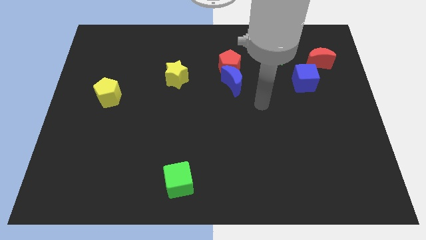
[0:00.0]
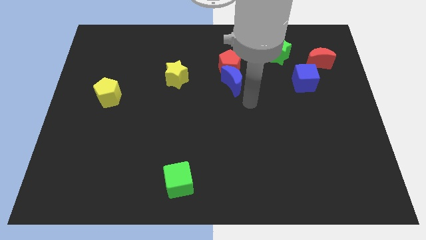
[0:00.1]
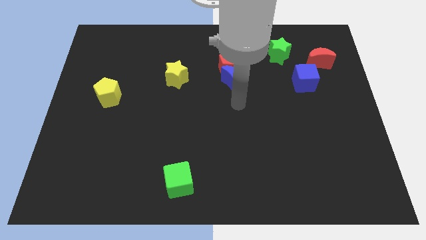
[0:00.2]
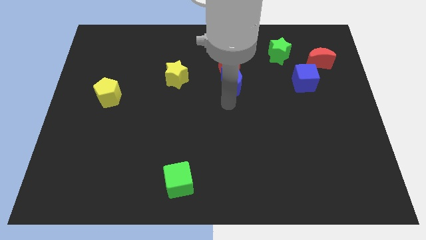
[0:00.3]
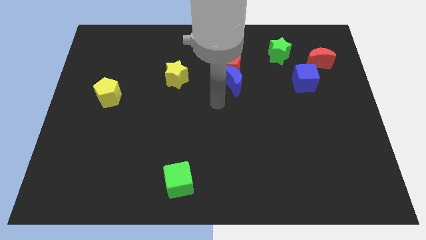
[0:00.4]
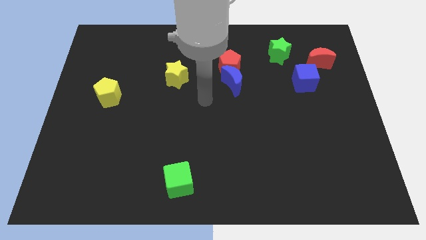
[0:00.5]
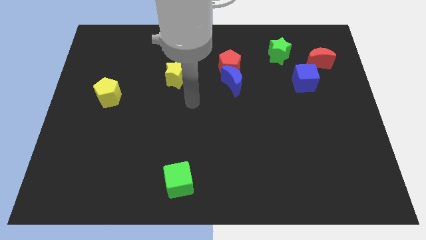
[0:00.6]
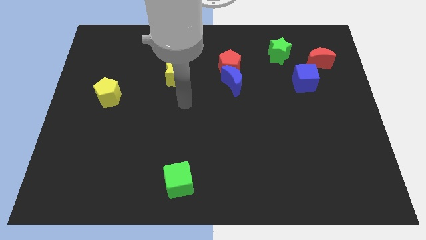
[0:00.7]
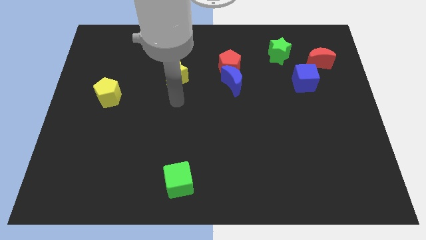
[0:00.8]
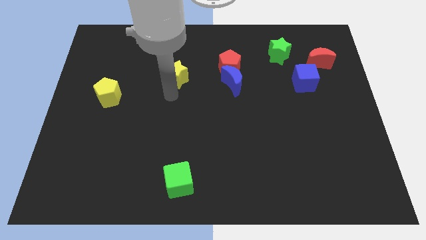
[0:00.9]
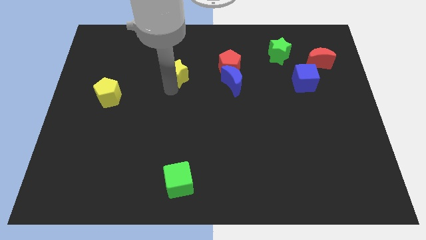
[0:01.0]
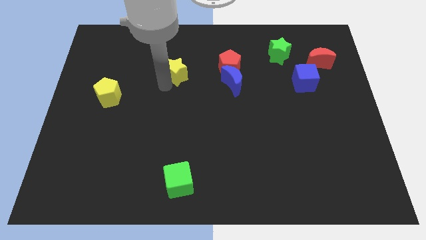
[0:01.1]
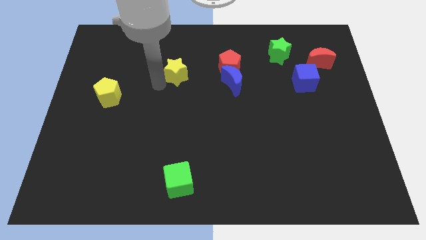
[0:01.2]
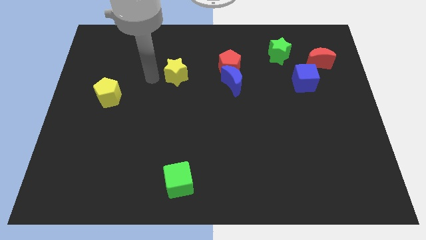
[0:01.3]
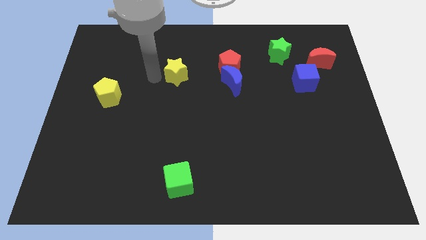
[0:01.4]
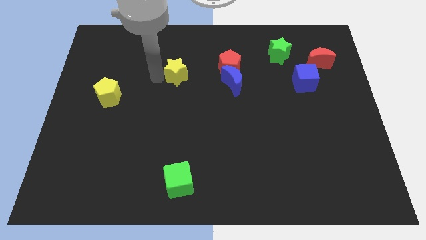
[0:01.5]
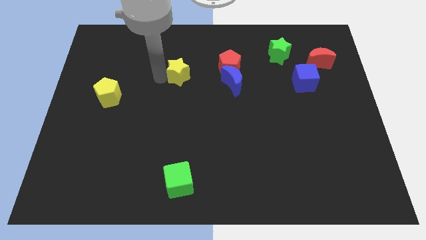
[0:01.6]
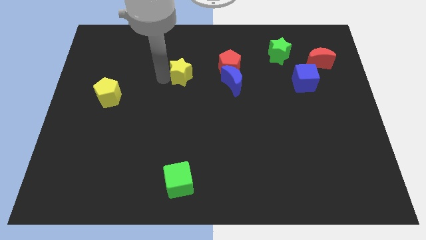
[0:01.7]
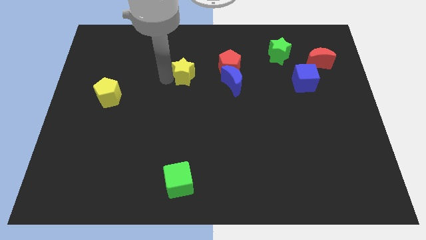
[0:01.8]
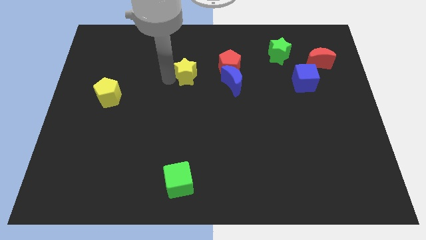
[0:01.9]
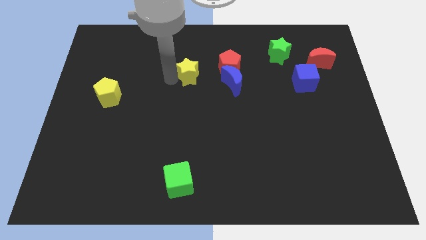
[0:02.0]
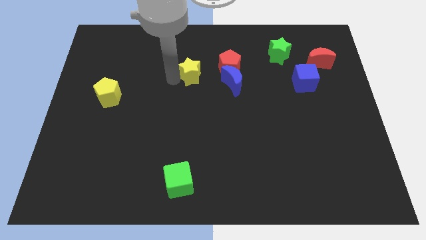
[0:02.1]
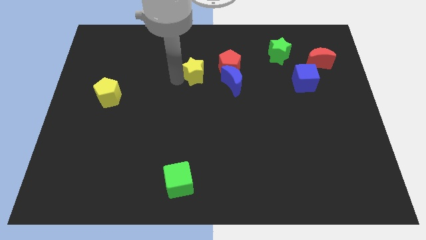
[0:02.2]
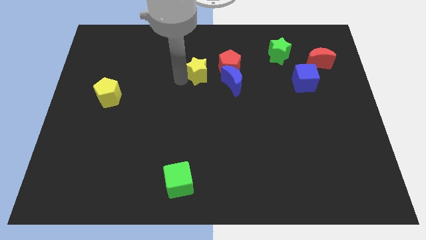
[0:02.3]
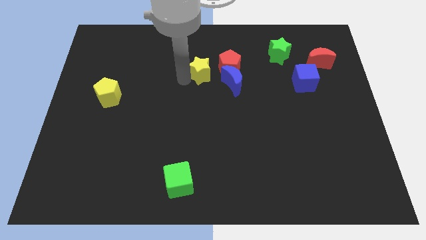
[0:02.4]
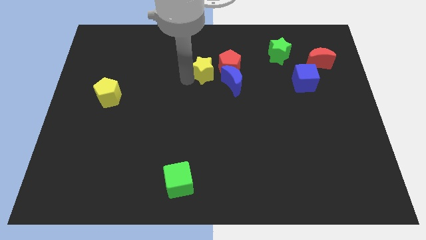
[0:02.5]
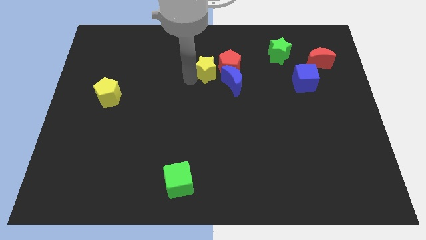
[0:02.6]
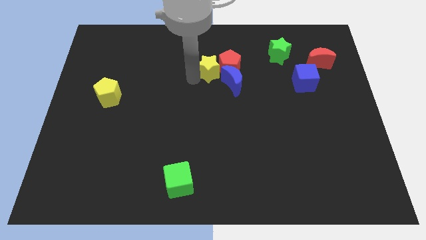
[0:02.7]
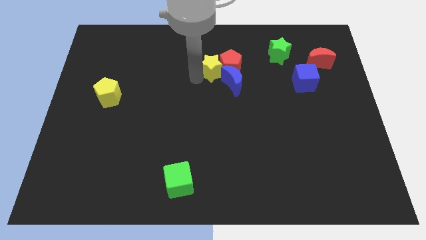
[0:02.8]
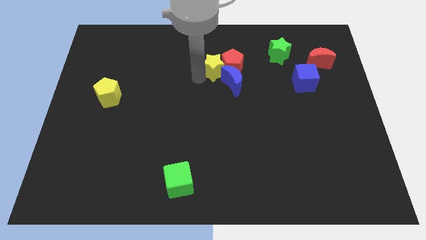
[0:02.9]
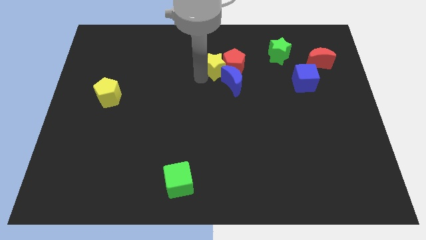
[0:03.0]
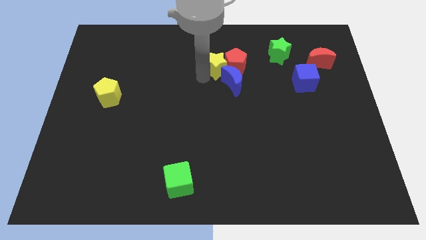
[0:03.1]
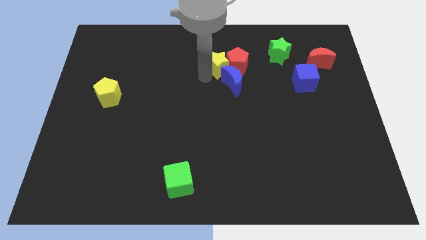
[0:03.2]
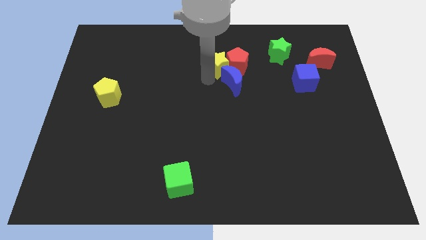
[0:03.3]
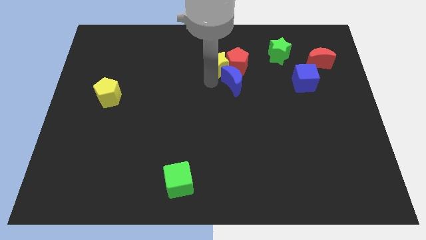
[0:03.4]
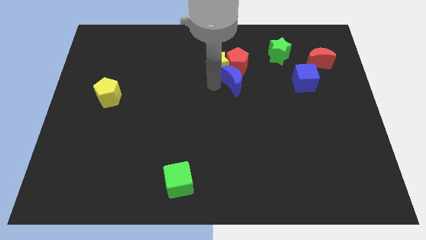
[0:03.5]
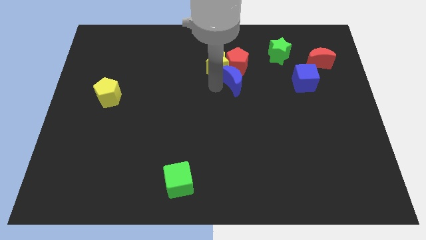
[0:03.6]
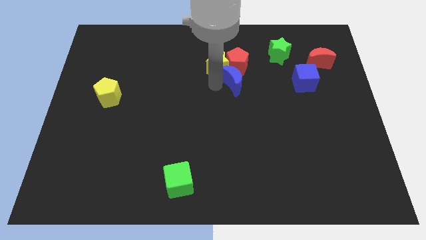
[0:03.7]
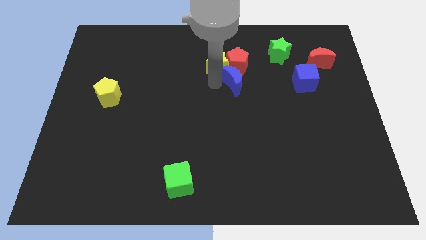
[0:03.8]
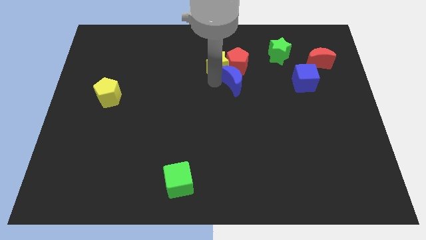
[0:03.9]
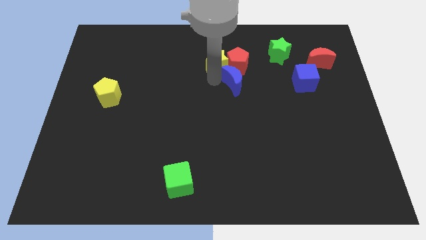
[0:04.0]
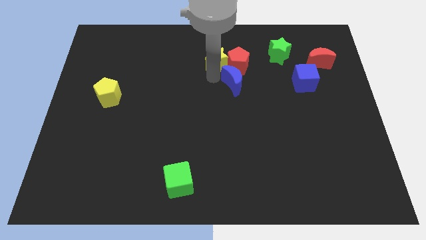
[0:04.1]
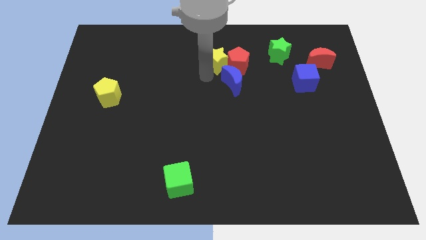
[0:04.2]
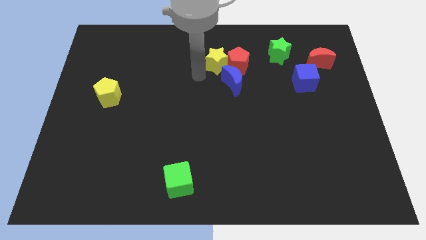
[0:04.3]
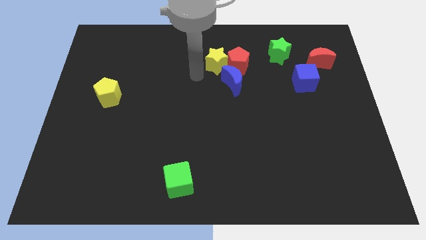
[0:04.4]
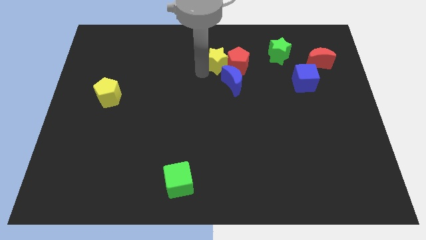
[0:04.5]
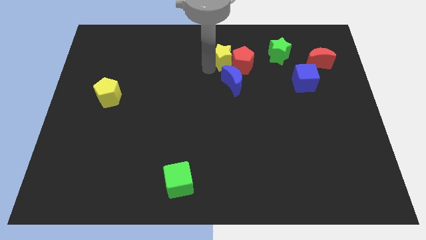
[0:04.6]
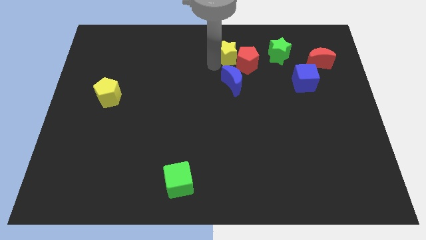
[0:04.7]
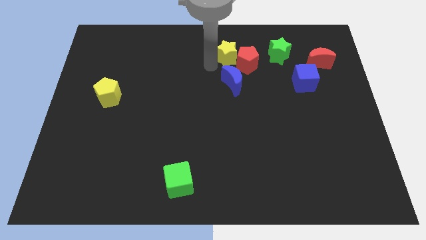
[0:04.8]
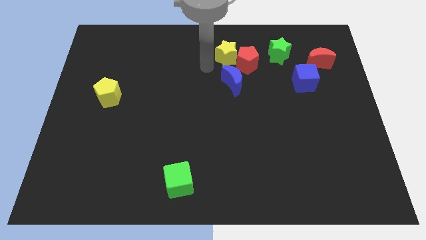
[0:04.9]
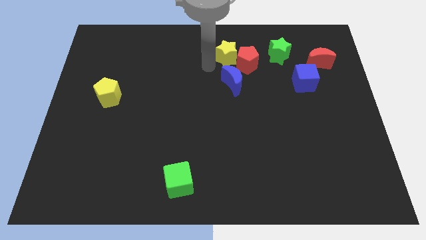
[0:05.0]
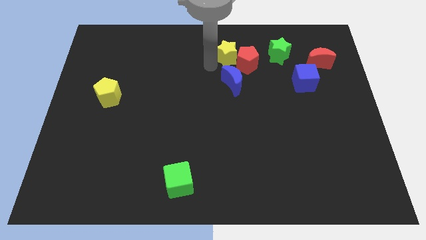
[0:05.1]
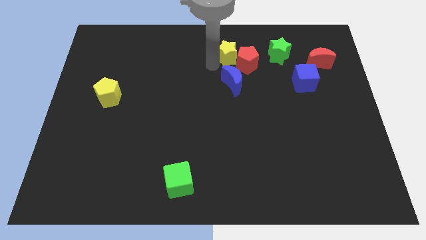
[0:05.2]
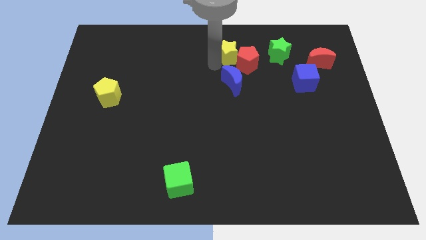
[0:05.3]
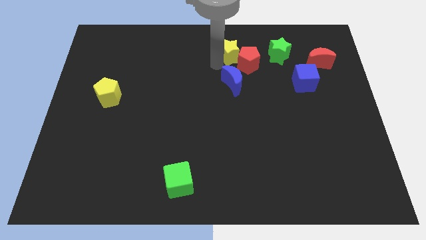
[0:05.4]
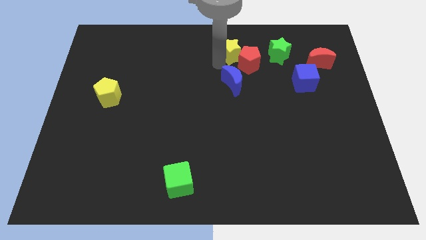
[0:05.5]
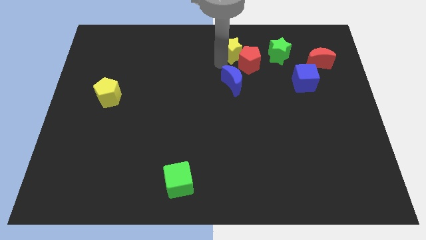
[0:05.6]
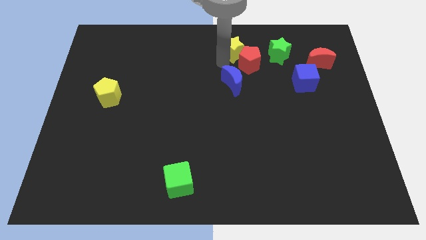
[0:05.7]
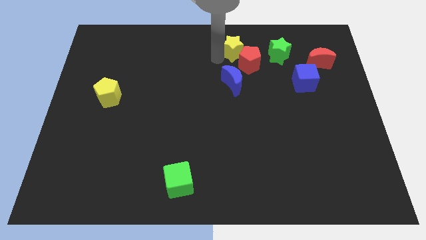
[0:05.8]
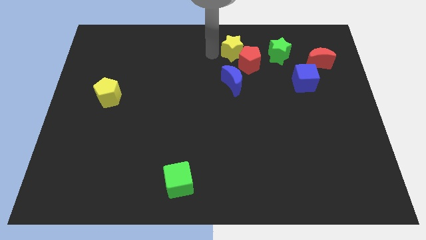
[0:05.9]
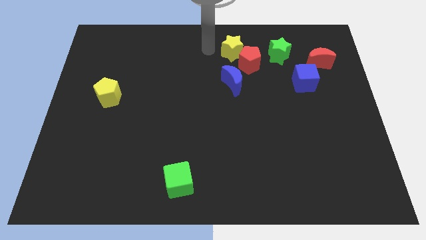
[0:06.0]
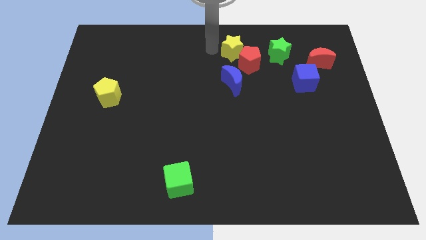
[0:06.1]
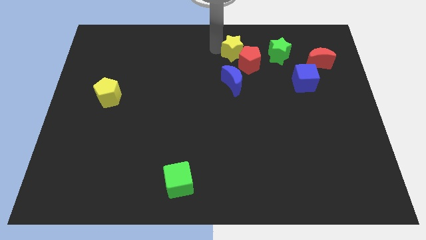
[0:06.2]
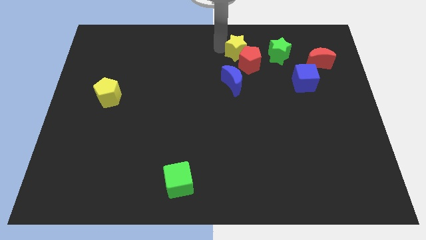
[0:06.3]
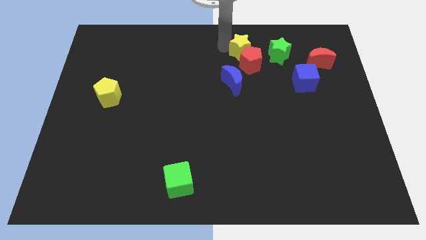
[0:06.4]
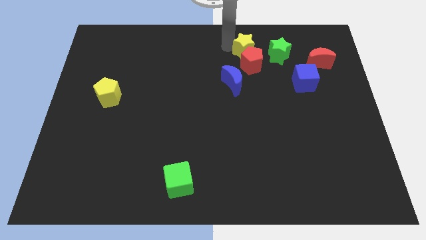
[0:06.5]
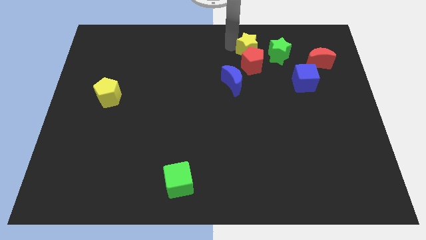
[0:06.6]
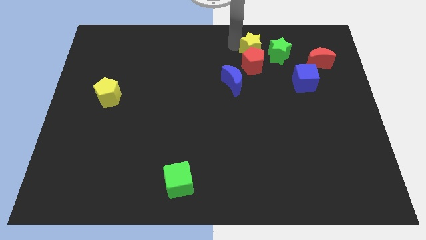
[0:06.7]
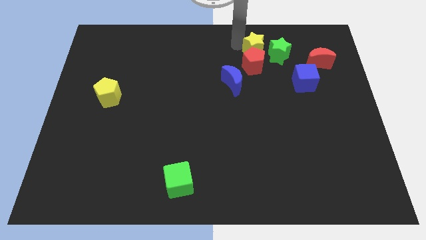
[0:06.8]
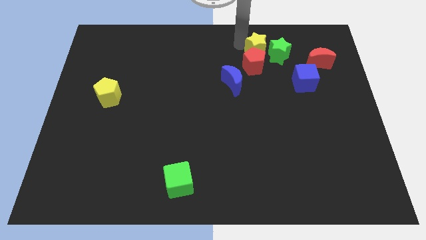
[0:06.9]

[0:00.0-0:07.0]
put the yellow star towards the green star
